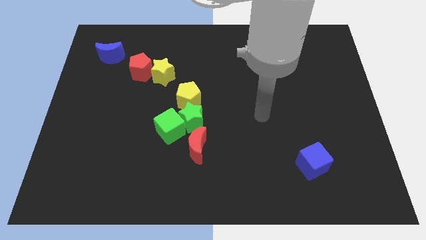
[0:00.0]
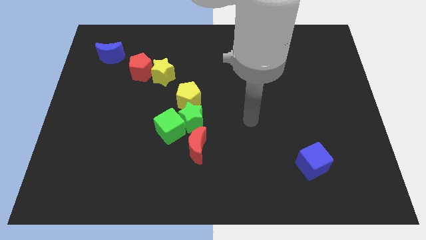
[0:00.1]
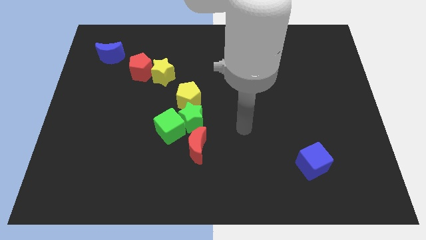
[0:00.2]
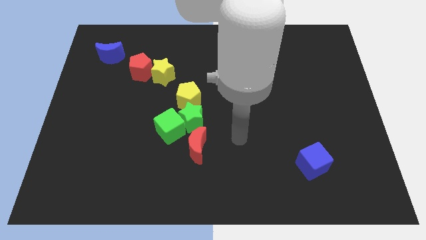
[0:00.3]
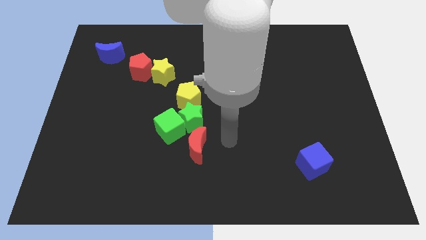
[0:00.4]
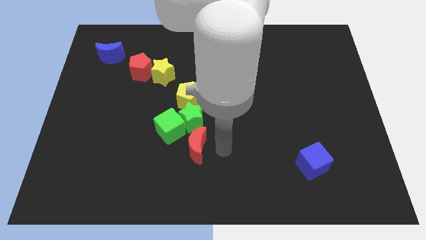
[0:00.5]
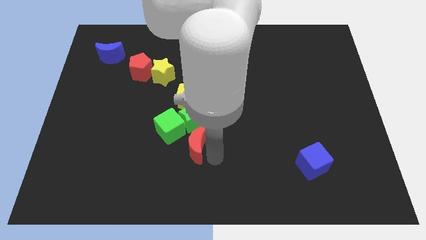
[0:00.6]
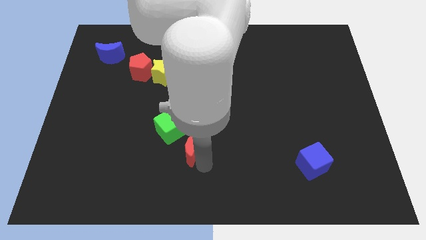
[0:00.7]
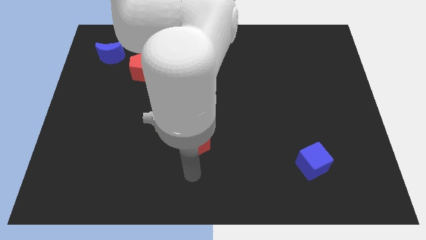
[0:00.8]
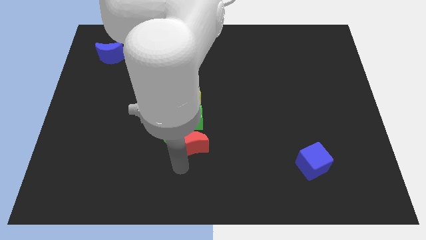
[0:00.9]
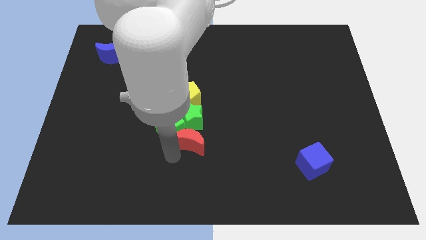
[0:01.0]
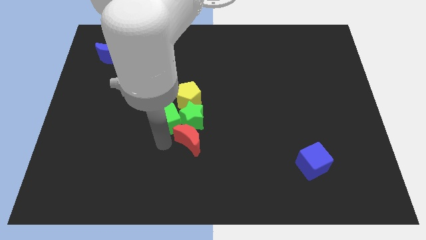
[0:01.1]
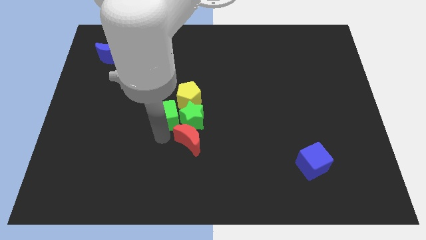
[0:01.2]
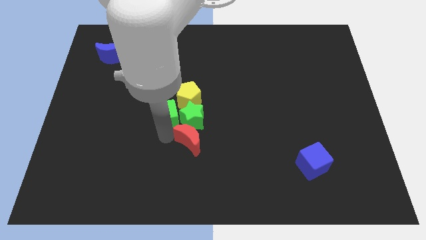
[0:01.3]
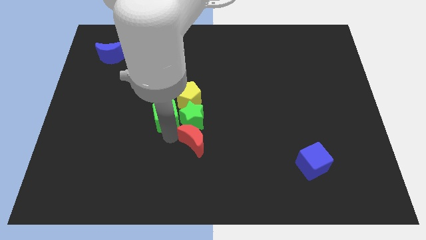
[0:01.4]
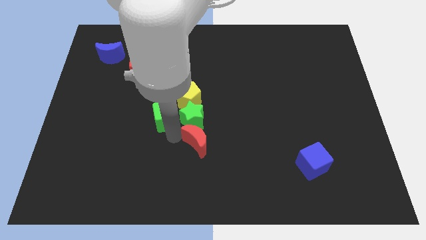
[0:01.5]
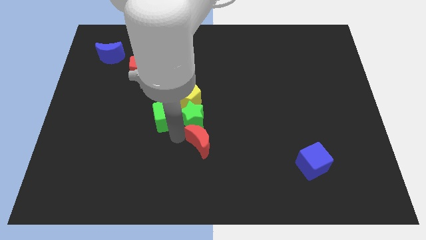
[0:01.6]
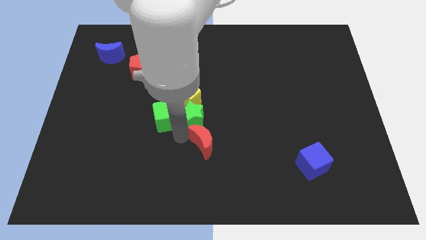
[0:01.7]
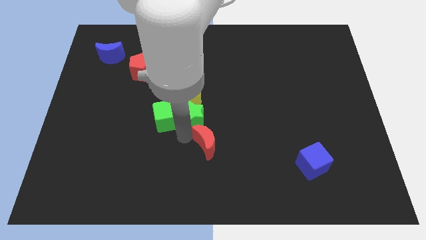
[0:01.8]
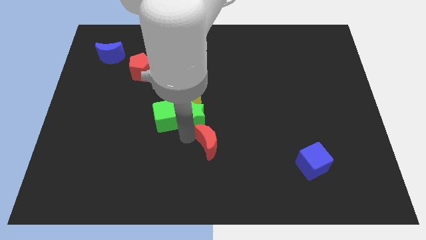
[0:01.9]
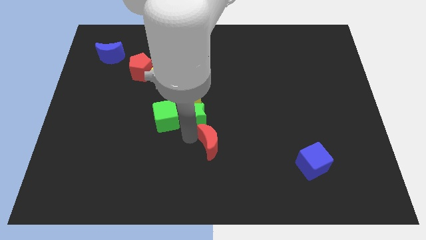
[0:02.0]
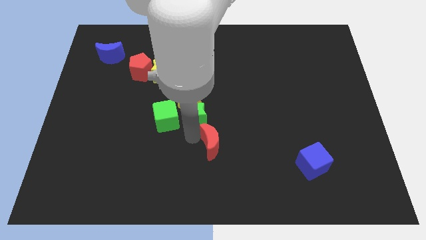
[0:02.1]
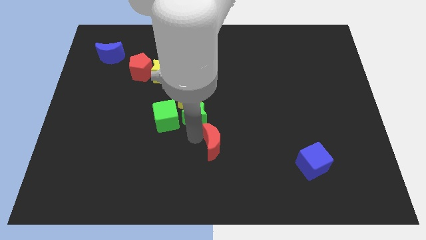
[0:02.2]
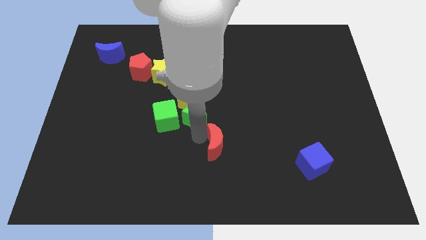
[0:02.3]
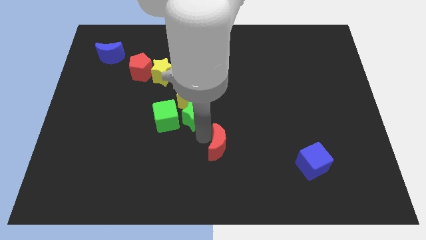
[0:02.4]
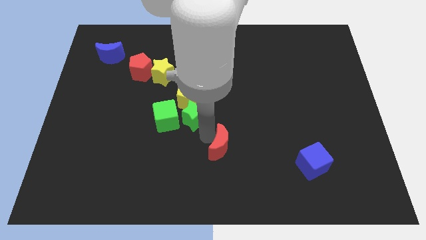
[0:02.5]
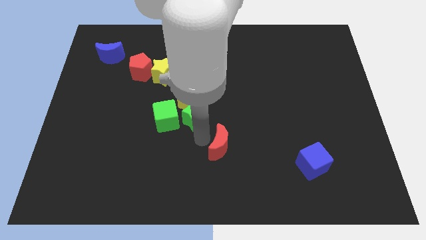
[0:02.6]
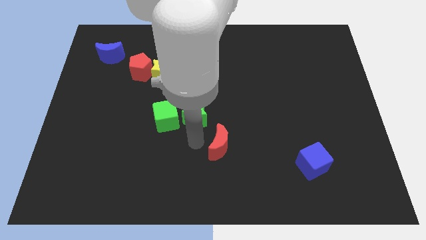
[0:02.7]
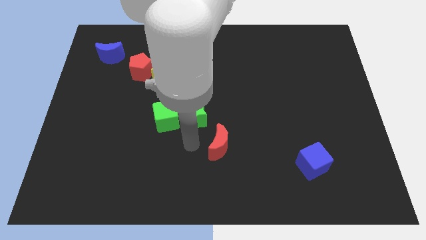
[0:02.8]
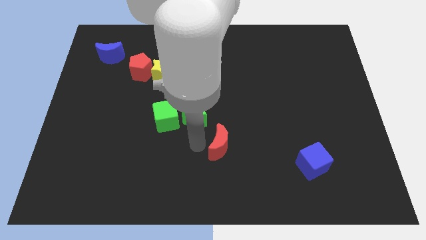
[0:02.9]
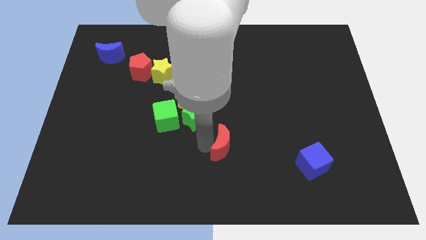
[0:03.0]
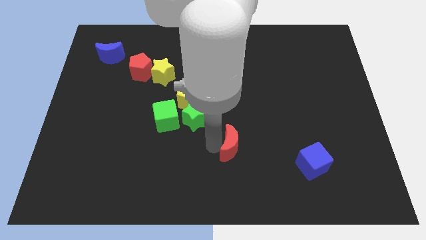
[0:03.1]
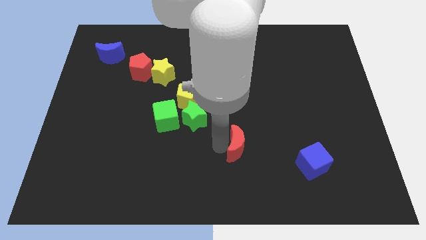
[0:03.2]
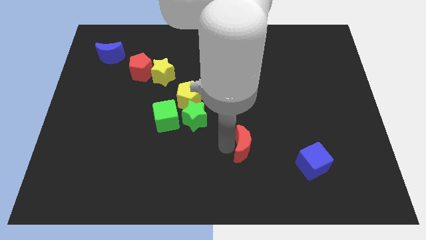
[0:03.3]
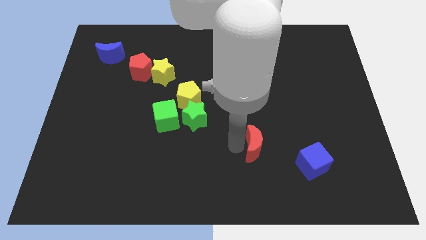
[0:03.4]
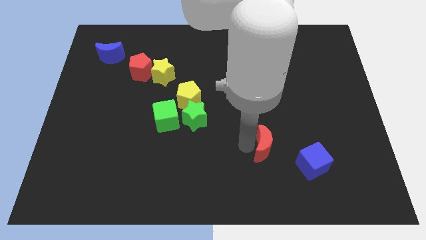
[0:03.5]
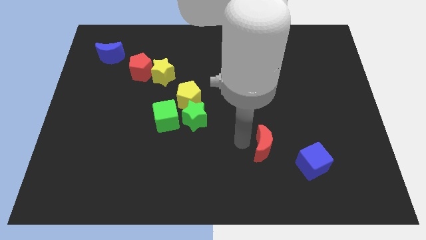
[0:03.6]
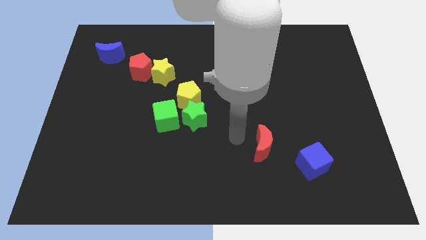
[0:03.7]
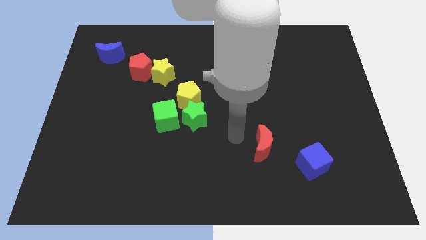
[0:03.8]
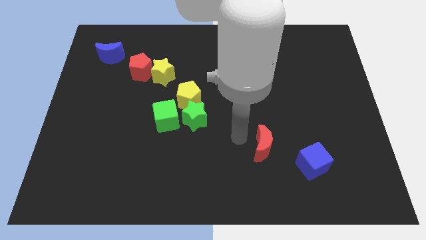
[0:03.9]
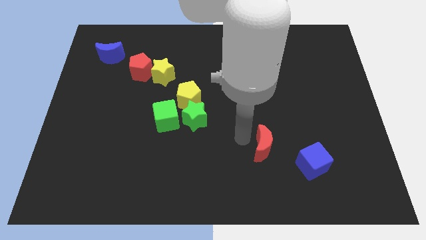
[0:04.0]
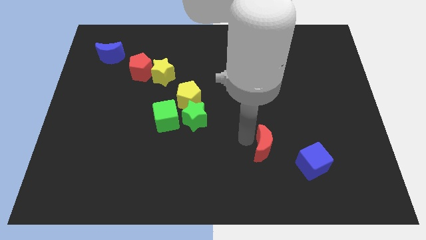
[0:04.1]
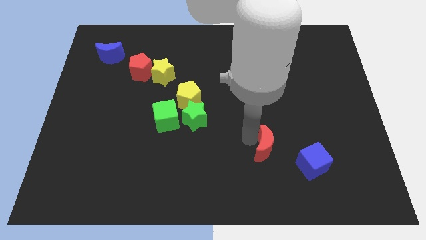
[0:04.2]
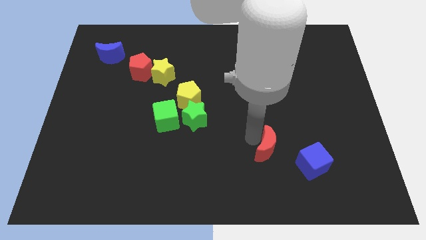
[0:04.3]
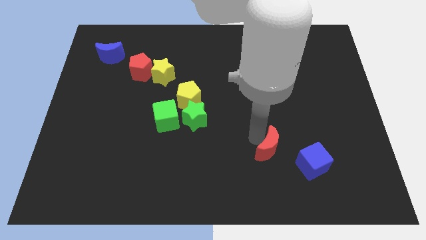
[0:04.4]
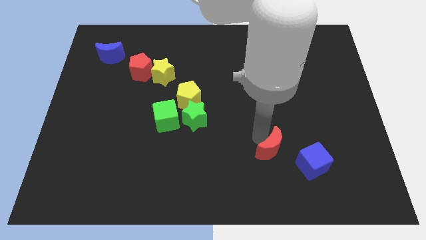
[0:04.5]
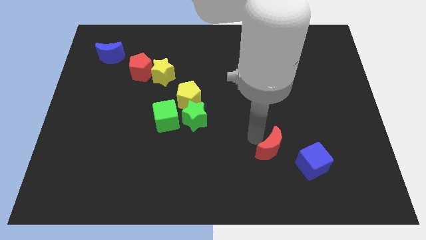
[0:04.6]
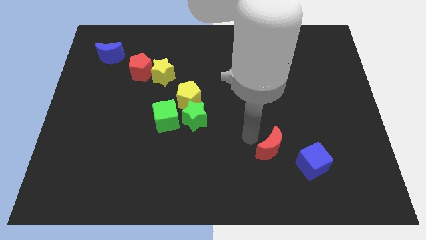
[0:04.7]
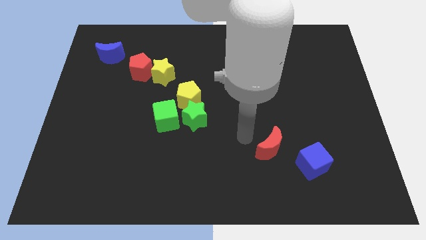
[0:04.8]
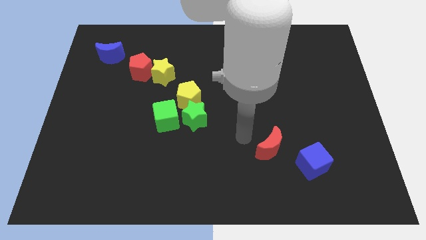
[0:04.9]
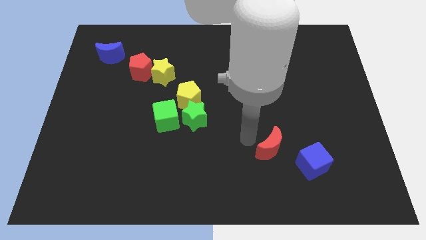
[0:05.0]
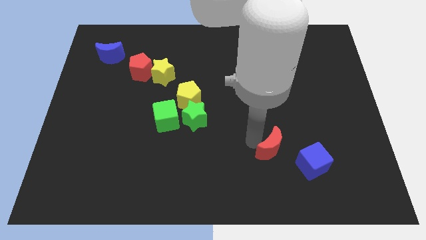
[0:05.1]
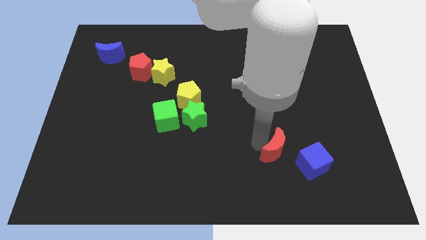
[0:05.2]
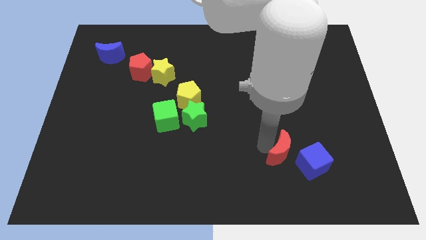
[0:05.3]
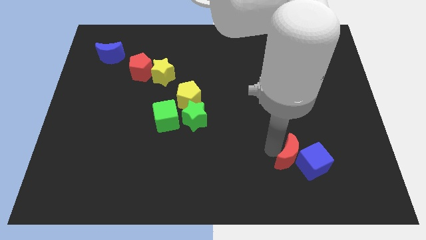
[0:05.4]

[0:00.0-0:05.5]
move the red moon next to the blue cube

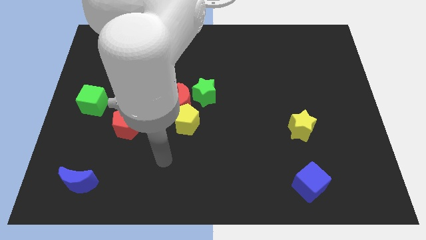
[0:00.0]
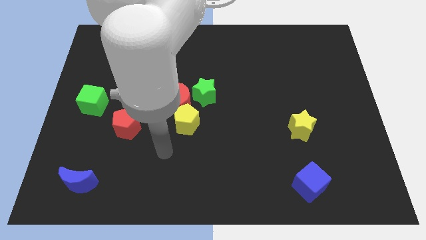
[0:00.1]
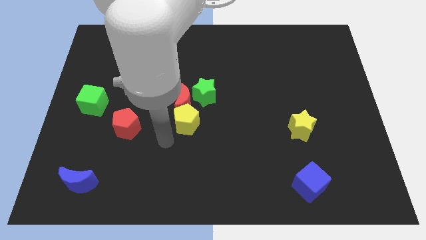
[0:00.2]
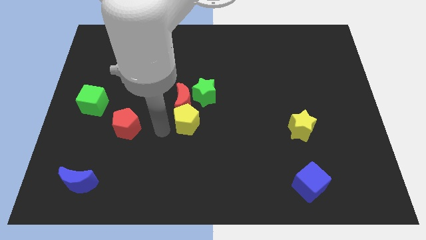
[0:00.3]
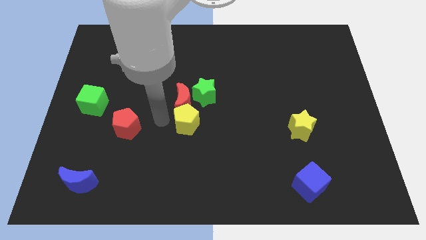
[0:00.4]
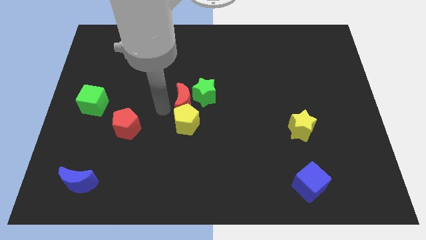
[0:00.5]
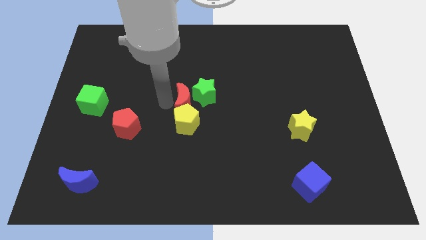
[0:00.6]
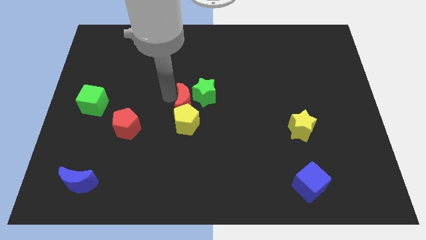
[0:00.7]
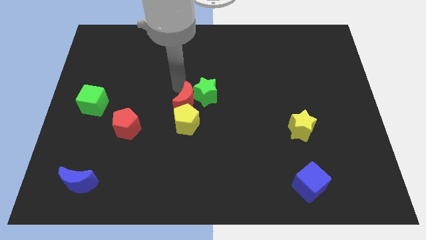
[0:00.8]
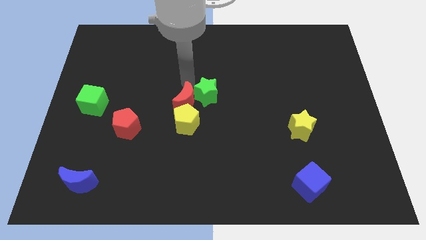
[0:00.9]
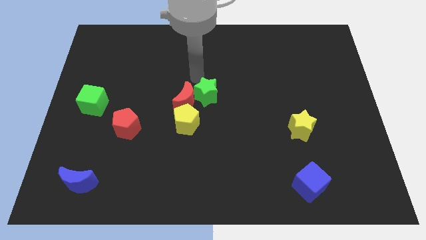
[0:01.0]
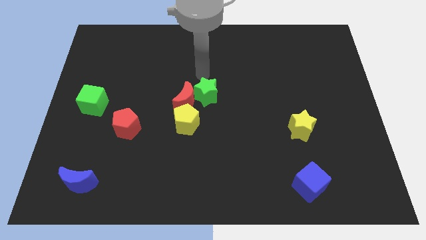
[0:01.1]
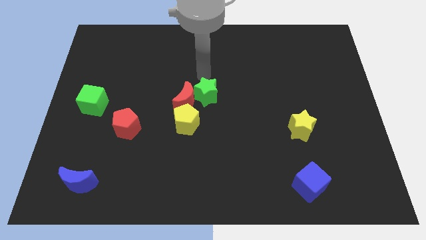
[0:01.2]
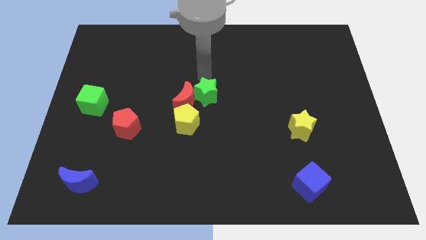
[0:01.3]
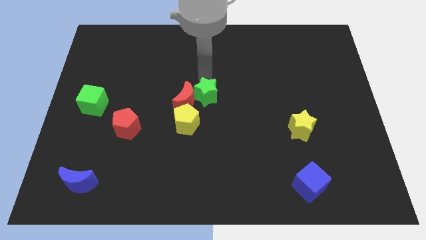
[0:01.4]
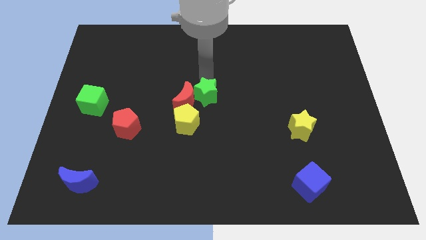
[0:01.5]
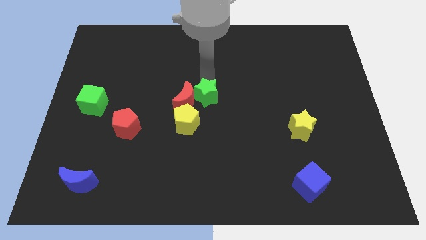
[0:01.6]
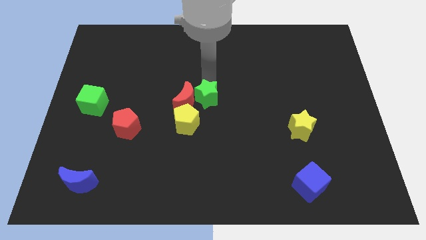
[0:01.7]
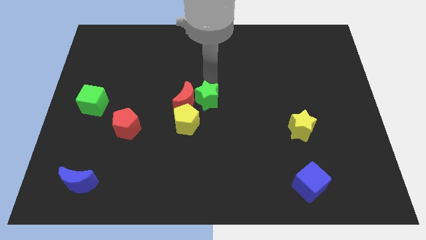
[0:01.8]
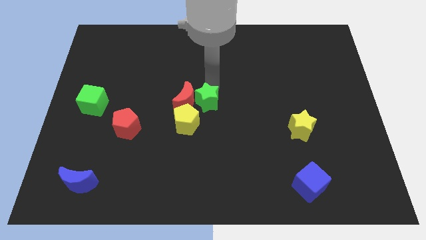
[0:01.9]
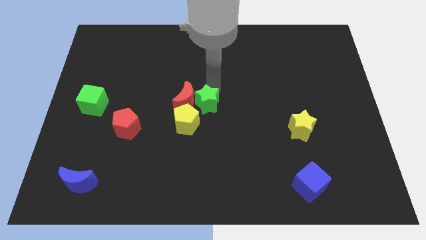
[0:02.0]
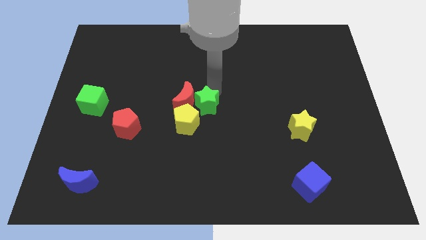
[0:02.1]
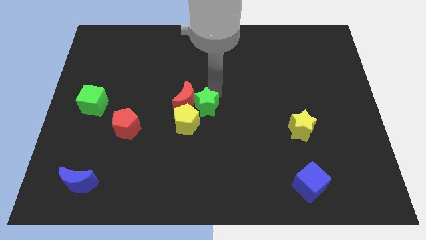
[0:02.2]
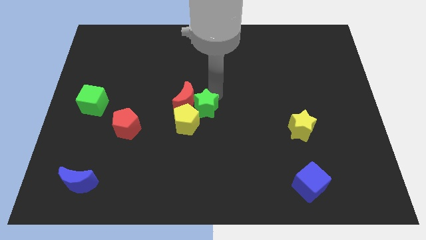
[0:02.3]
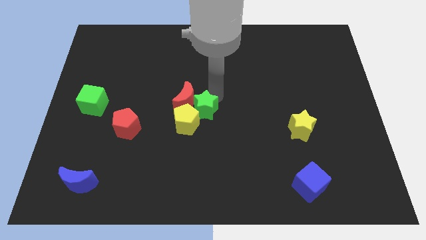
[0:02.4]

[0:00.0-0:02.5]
put the green star to the yellow pentagon
